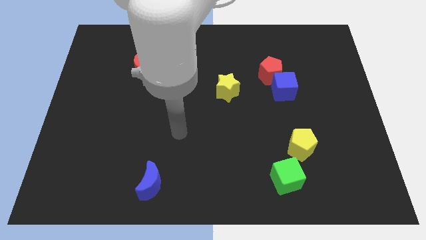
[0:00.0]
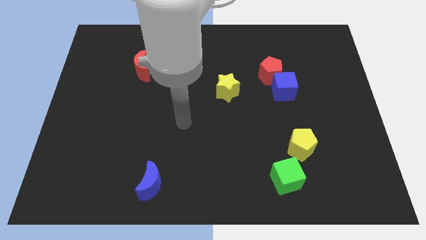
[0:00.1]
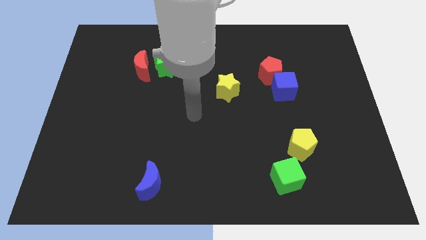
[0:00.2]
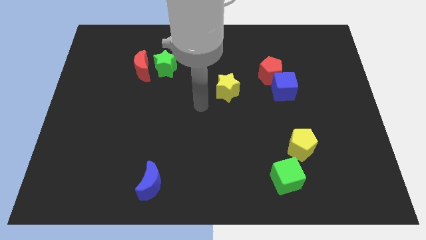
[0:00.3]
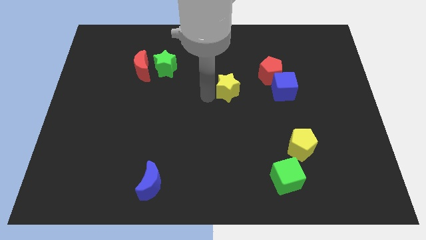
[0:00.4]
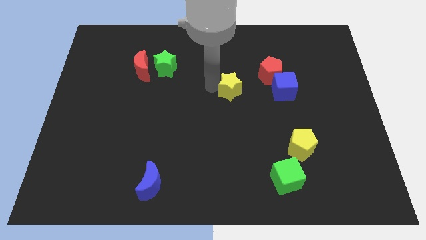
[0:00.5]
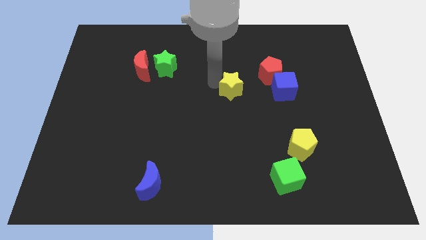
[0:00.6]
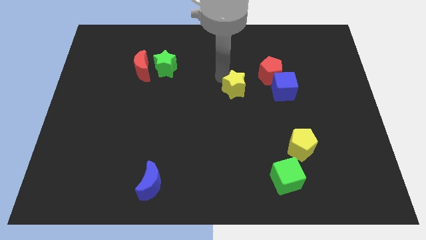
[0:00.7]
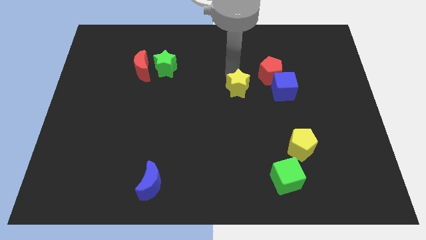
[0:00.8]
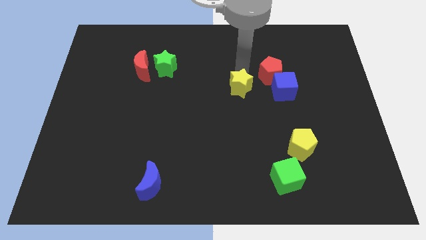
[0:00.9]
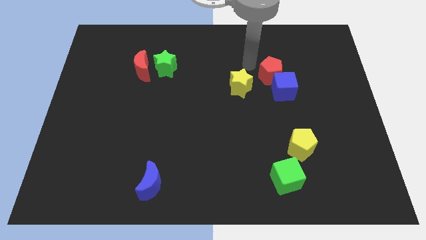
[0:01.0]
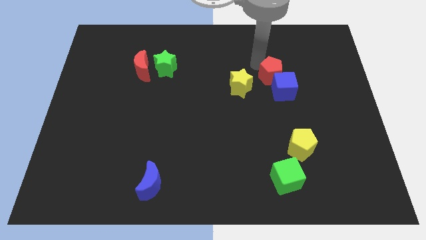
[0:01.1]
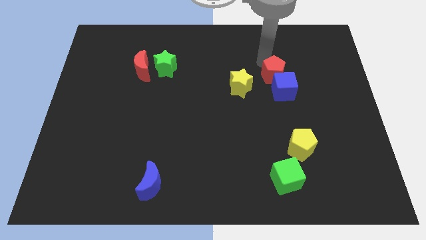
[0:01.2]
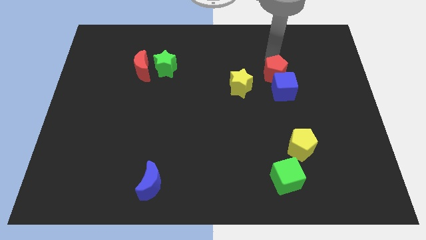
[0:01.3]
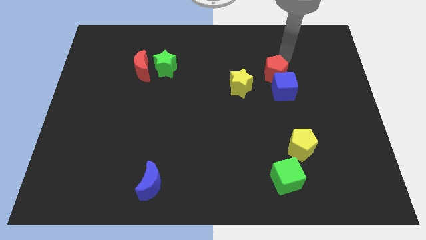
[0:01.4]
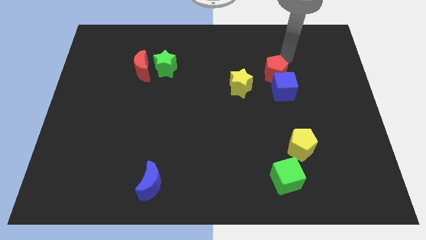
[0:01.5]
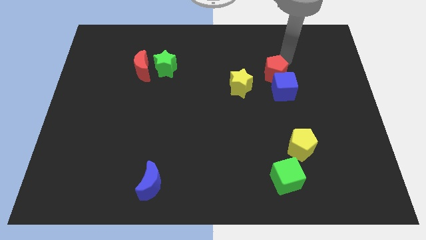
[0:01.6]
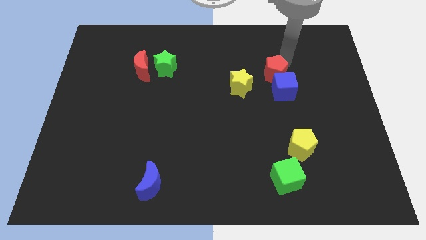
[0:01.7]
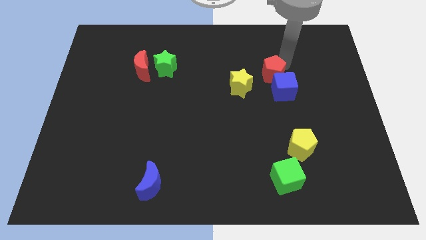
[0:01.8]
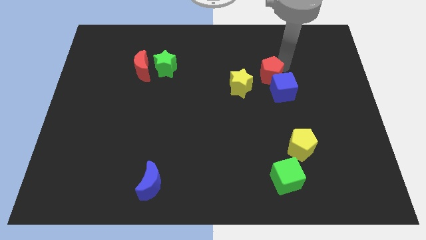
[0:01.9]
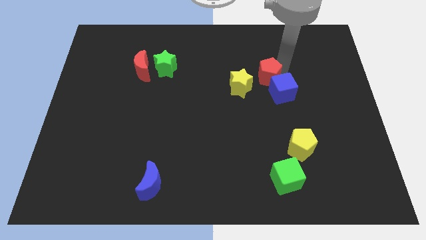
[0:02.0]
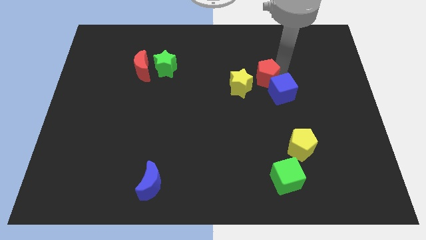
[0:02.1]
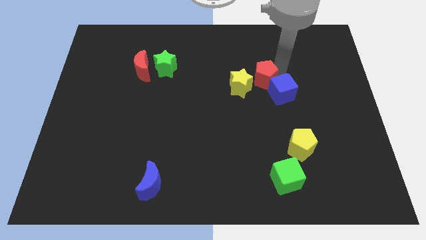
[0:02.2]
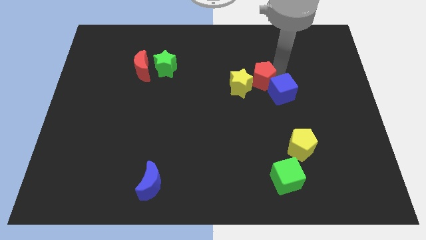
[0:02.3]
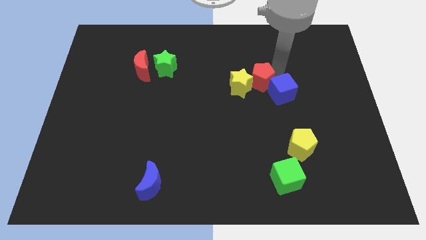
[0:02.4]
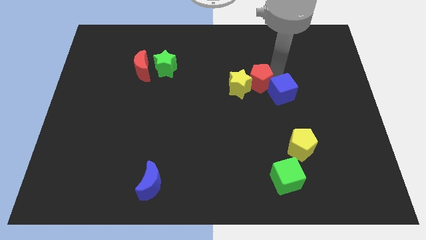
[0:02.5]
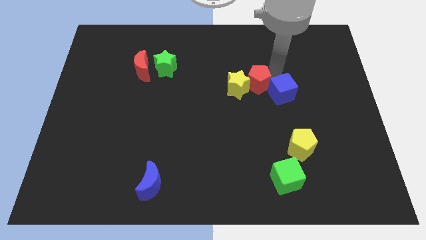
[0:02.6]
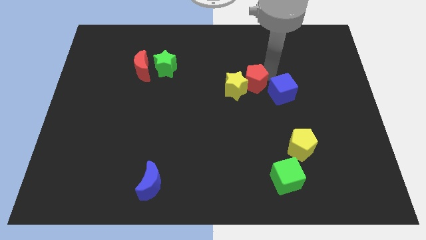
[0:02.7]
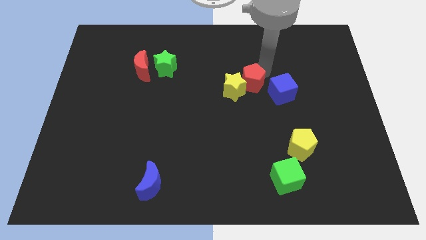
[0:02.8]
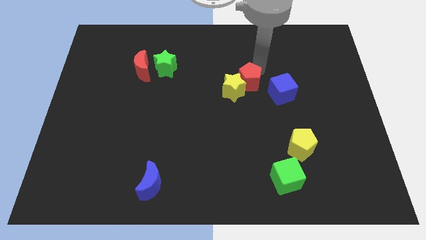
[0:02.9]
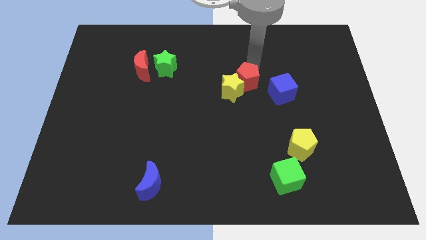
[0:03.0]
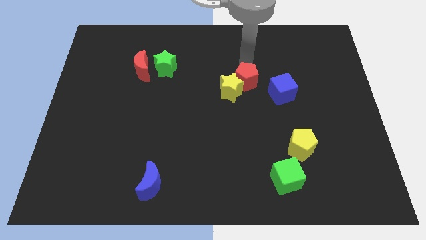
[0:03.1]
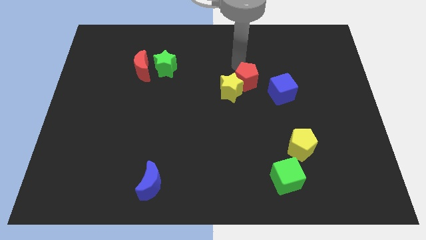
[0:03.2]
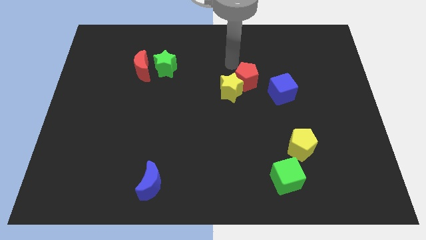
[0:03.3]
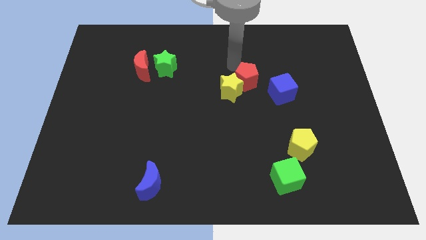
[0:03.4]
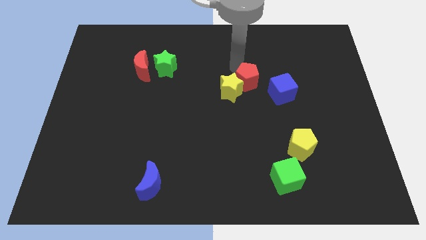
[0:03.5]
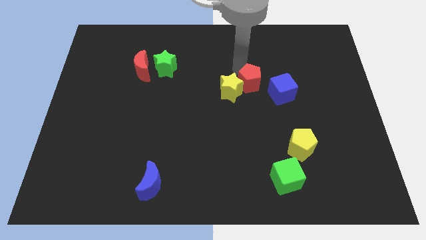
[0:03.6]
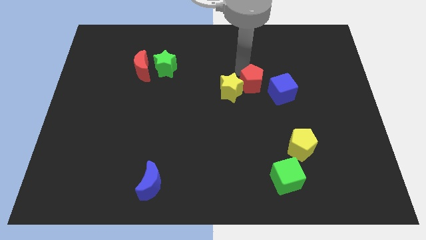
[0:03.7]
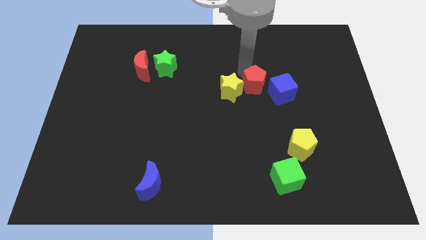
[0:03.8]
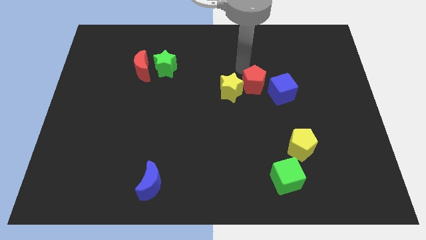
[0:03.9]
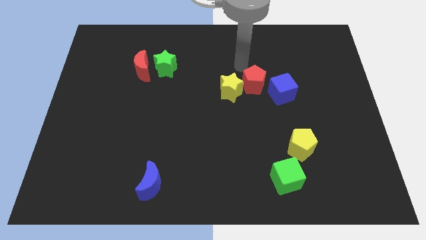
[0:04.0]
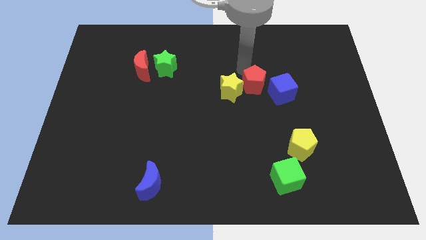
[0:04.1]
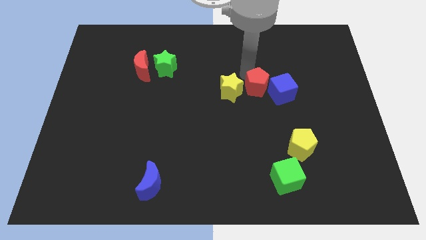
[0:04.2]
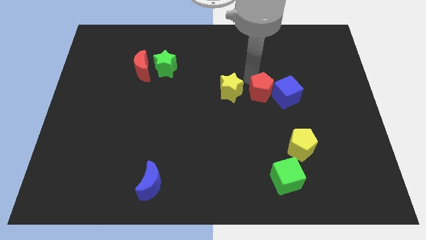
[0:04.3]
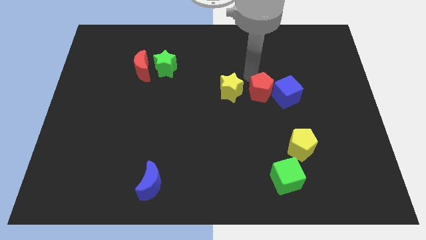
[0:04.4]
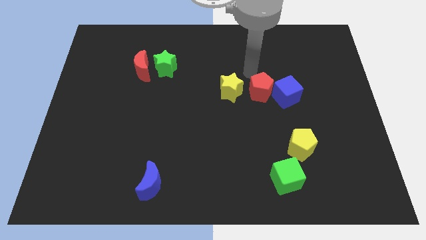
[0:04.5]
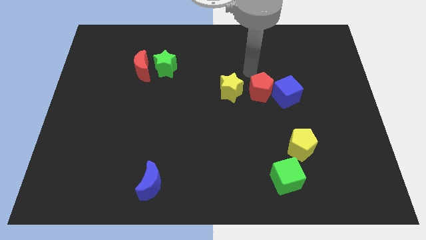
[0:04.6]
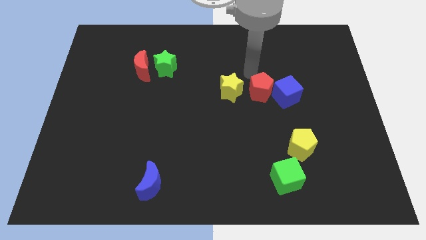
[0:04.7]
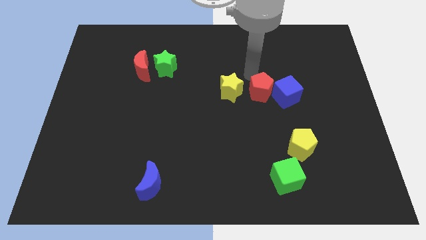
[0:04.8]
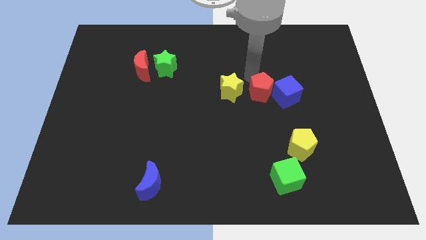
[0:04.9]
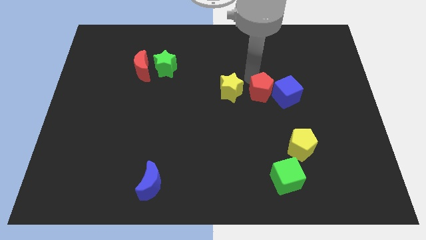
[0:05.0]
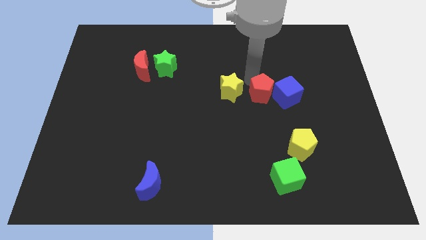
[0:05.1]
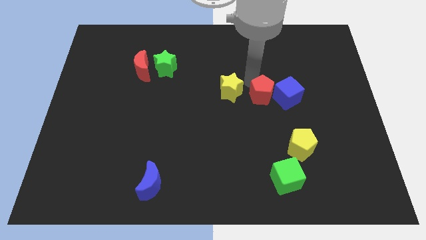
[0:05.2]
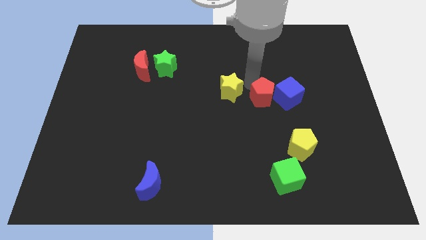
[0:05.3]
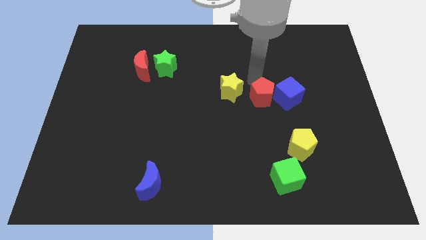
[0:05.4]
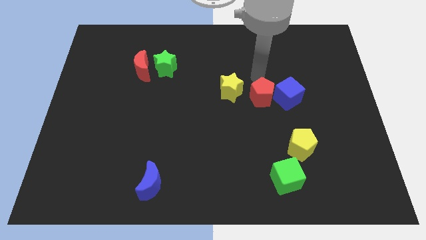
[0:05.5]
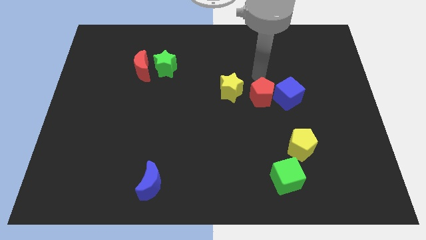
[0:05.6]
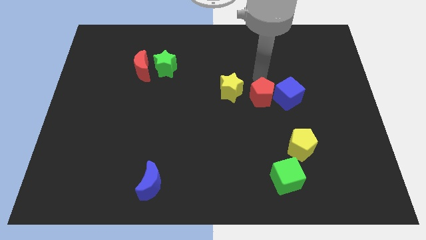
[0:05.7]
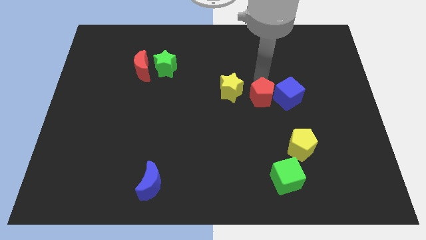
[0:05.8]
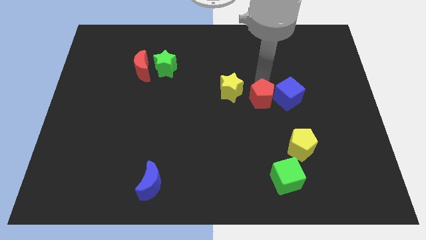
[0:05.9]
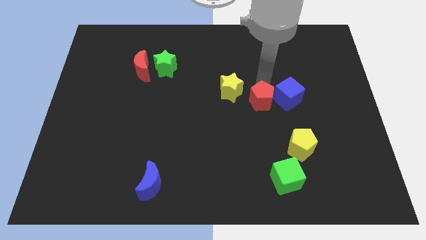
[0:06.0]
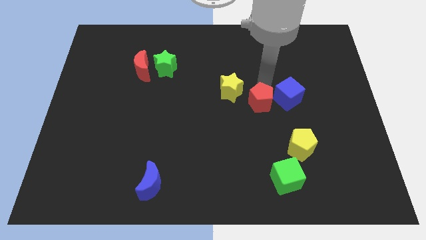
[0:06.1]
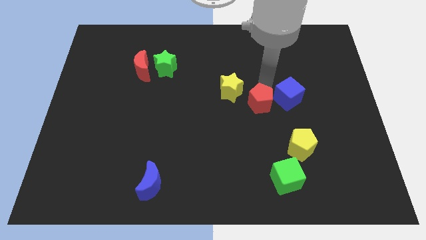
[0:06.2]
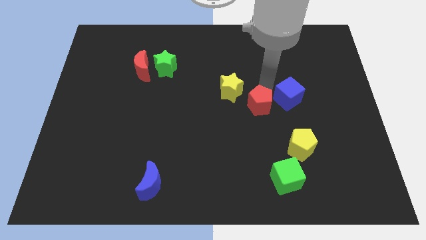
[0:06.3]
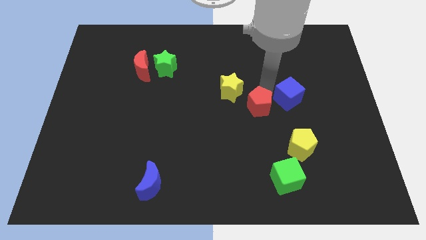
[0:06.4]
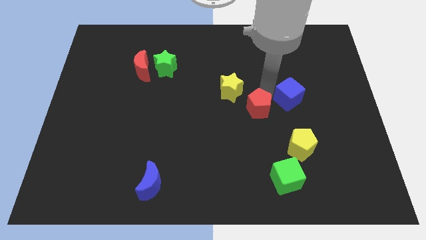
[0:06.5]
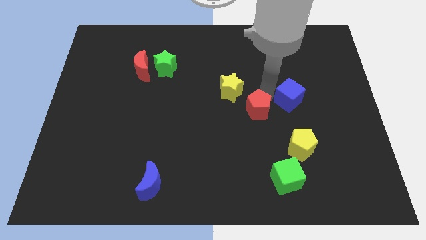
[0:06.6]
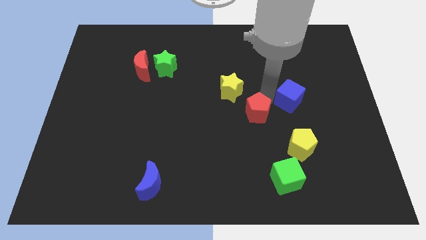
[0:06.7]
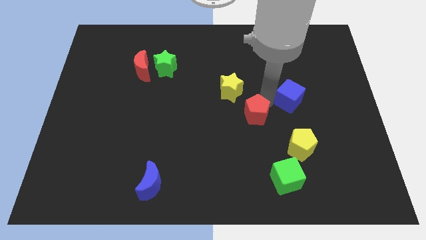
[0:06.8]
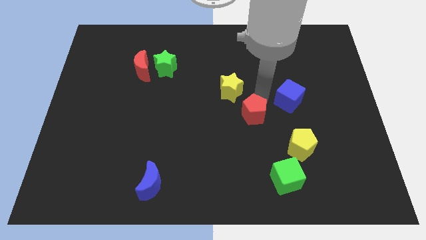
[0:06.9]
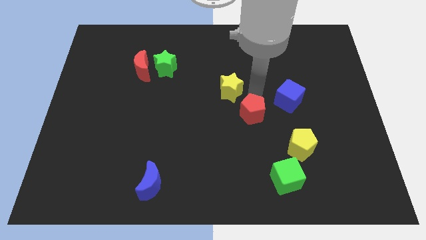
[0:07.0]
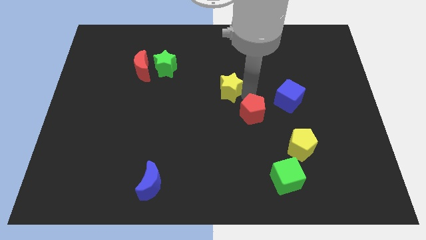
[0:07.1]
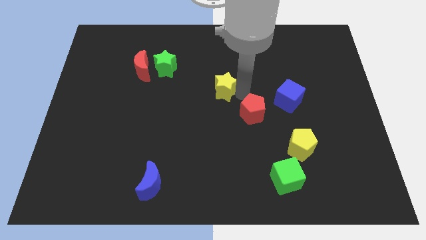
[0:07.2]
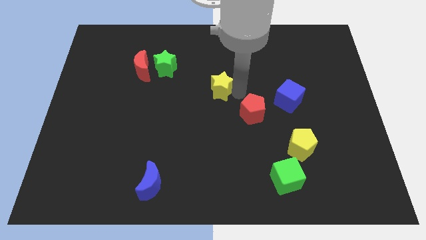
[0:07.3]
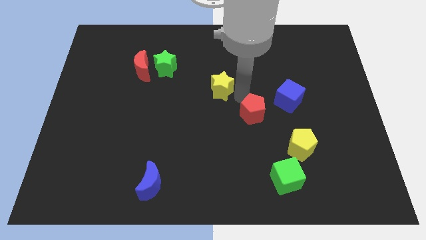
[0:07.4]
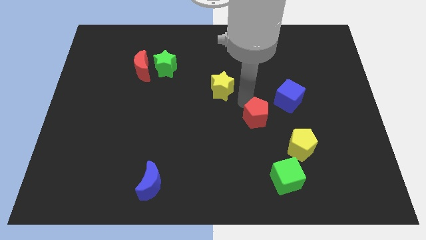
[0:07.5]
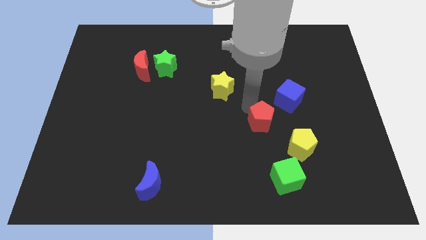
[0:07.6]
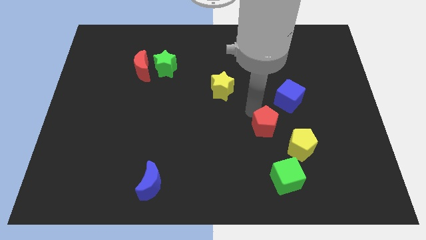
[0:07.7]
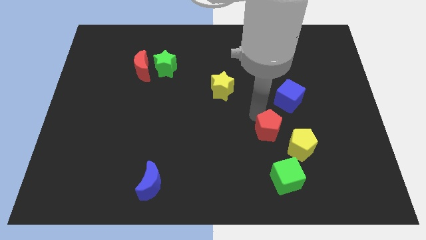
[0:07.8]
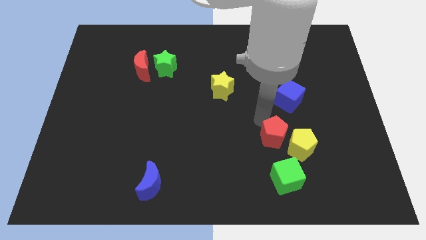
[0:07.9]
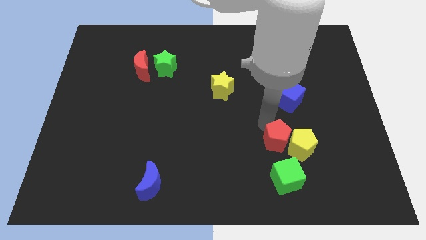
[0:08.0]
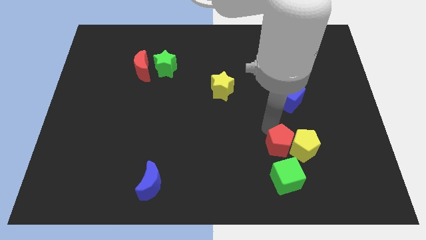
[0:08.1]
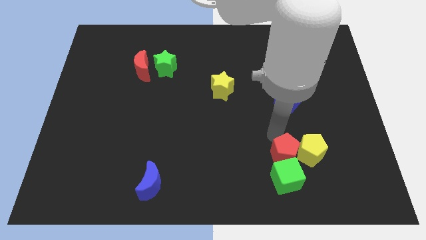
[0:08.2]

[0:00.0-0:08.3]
move the red pentagon towards the green cube
